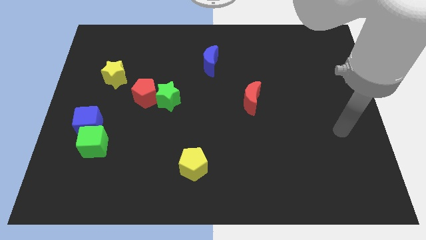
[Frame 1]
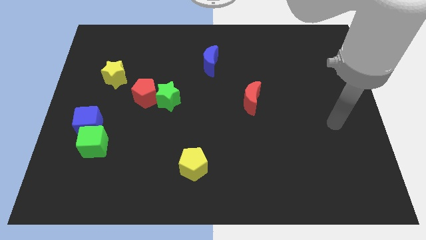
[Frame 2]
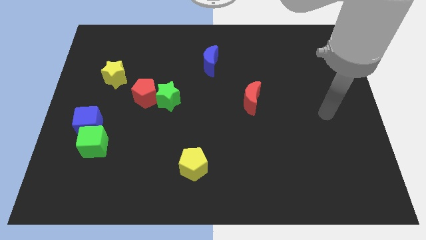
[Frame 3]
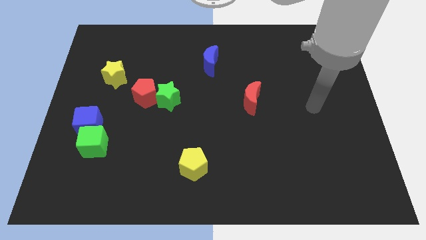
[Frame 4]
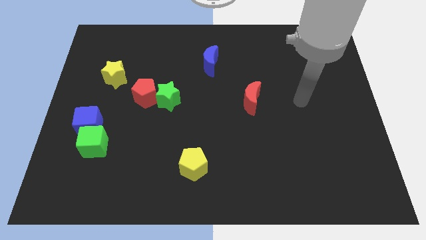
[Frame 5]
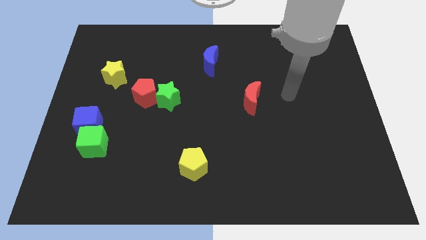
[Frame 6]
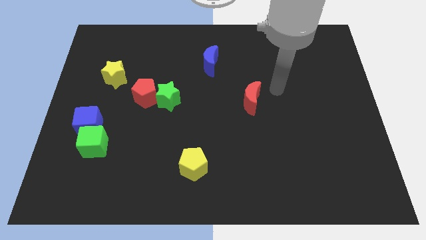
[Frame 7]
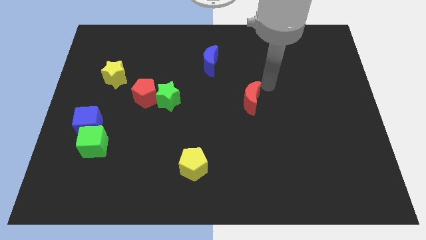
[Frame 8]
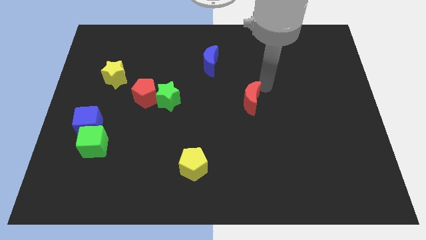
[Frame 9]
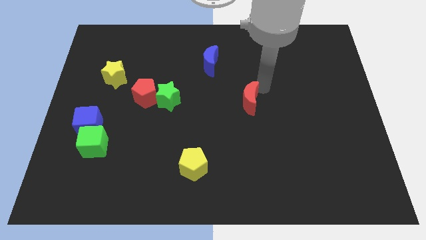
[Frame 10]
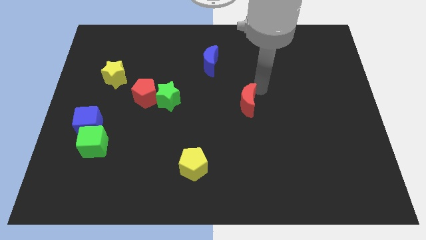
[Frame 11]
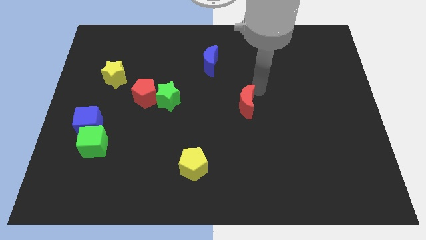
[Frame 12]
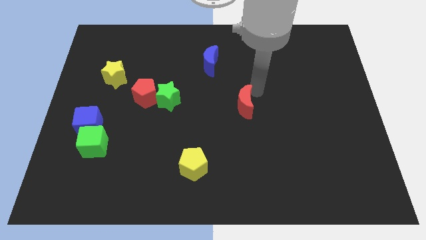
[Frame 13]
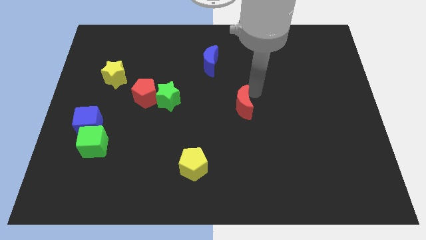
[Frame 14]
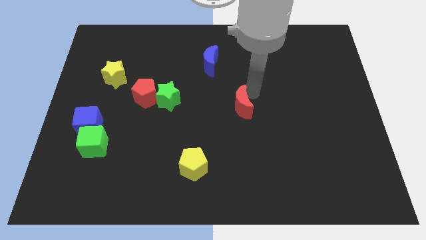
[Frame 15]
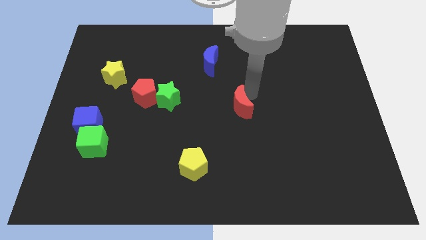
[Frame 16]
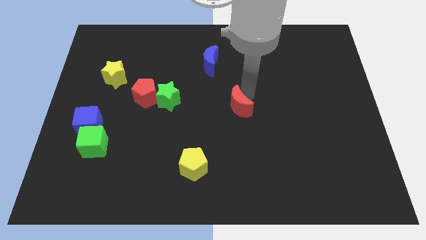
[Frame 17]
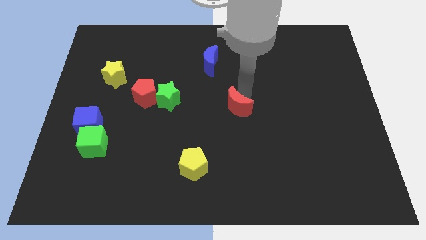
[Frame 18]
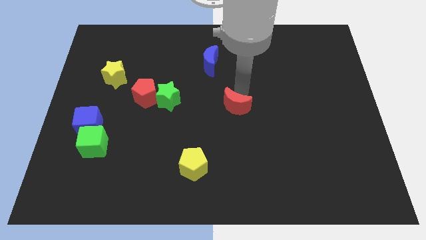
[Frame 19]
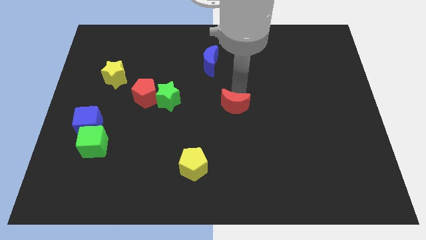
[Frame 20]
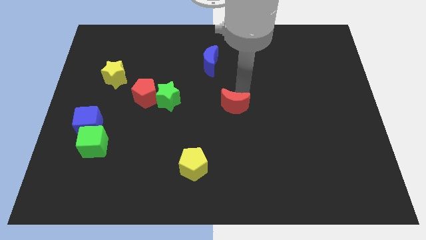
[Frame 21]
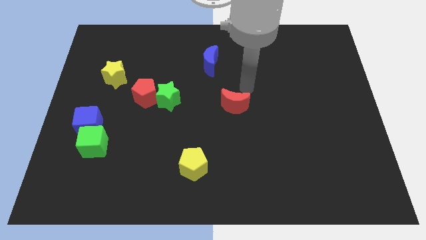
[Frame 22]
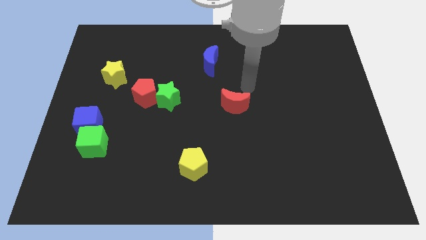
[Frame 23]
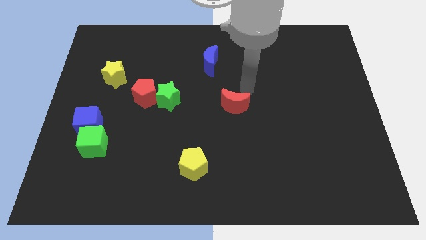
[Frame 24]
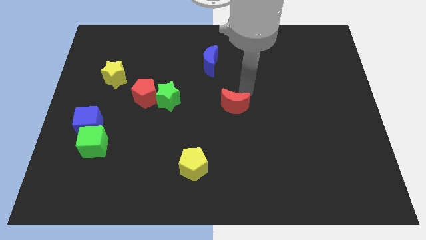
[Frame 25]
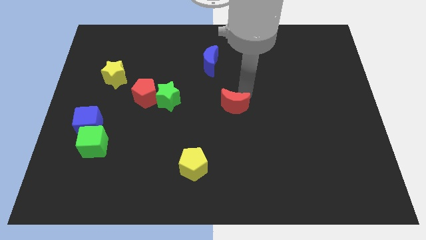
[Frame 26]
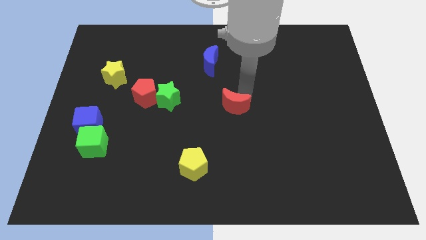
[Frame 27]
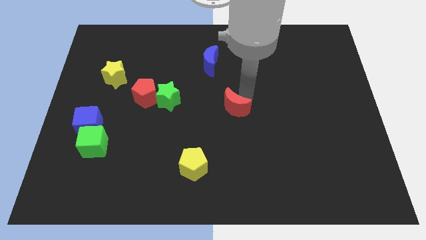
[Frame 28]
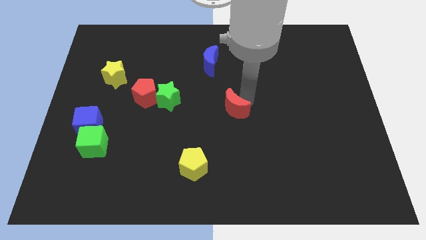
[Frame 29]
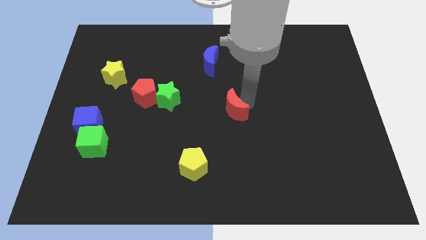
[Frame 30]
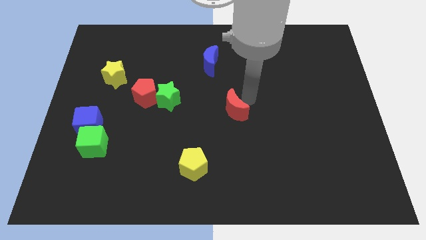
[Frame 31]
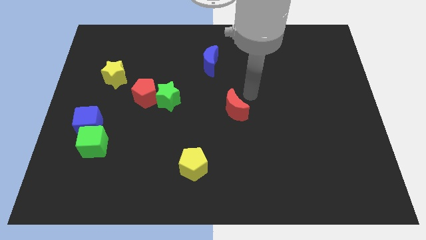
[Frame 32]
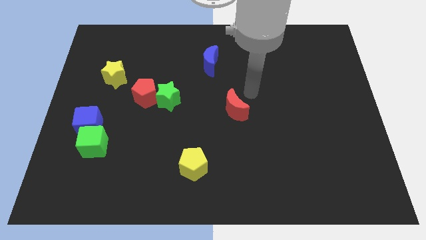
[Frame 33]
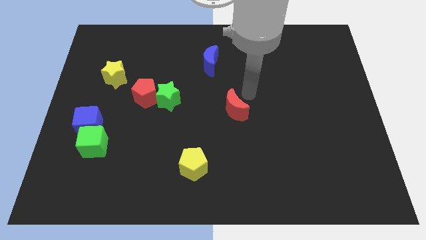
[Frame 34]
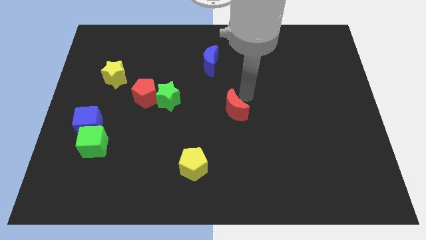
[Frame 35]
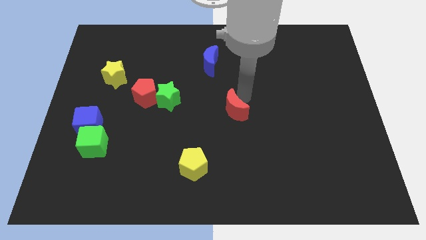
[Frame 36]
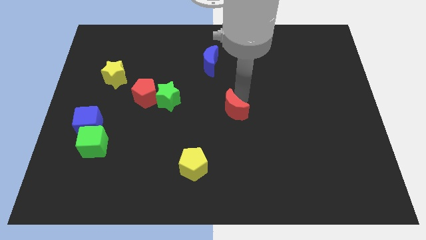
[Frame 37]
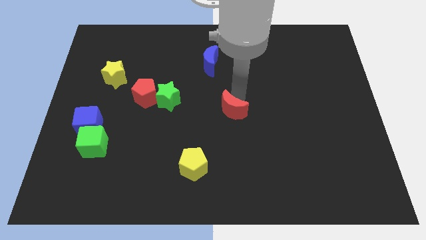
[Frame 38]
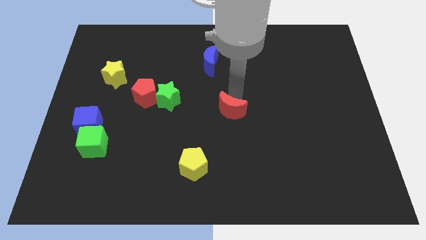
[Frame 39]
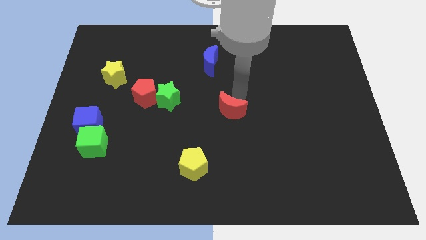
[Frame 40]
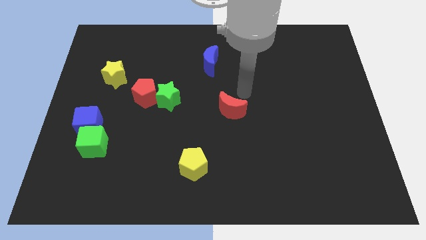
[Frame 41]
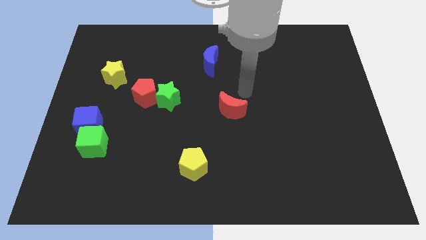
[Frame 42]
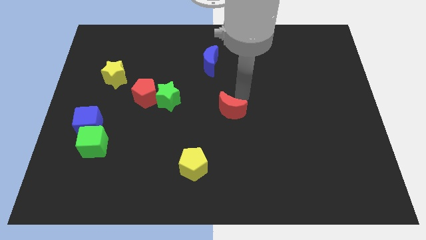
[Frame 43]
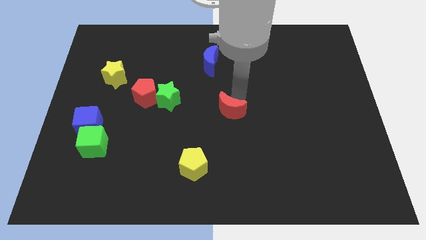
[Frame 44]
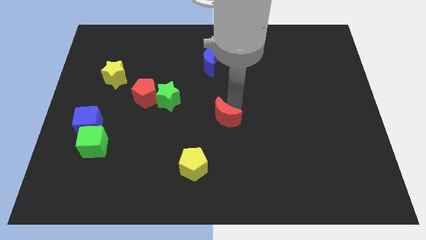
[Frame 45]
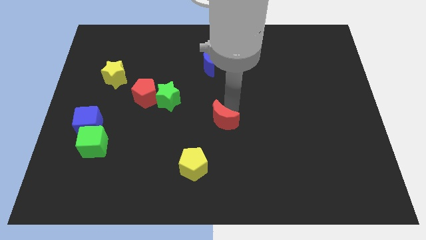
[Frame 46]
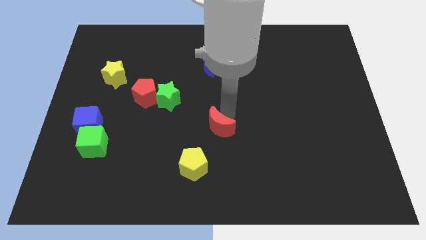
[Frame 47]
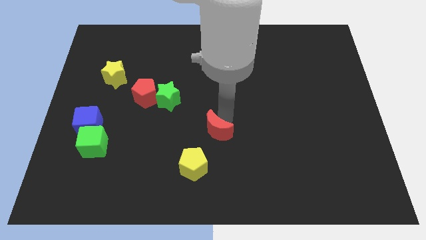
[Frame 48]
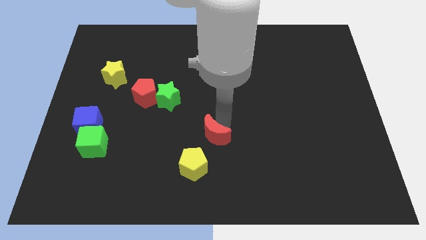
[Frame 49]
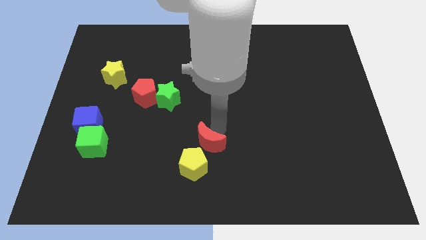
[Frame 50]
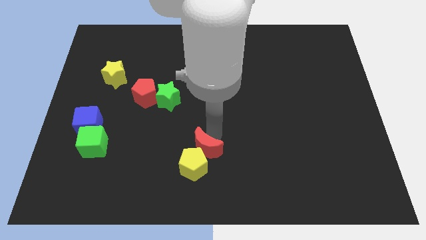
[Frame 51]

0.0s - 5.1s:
push the red moon close to the yellow pentagon

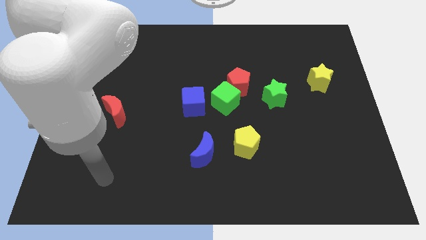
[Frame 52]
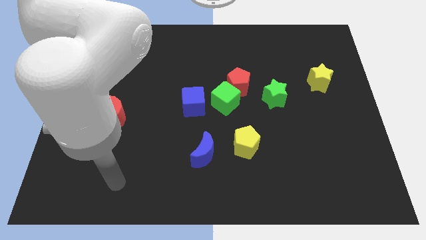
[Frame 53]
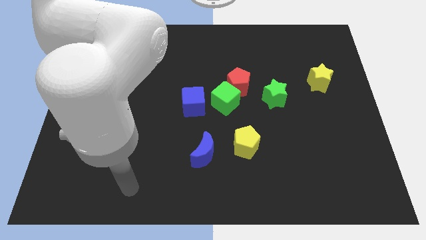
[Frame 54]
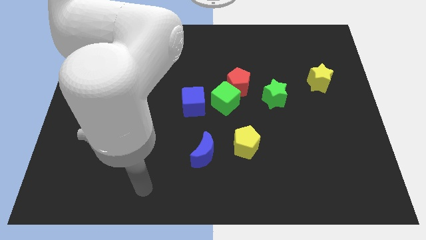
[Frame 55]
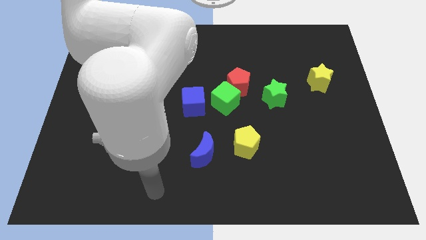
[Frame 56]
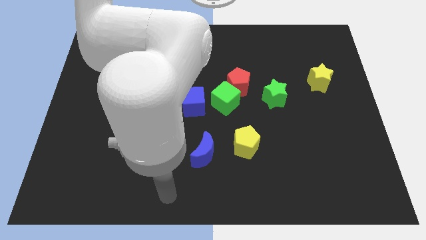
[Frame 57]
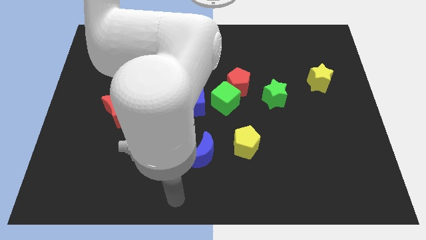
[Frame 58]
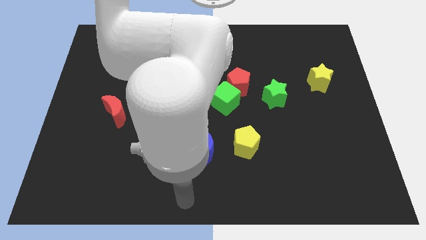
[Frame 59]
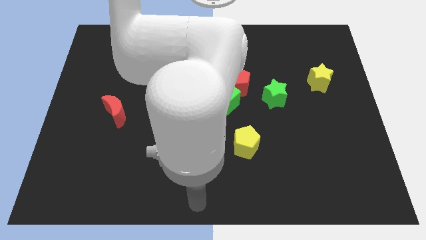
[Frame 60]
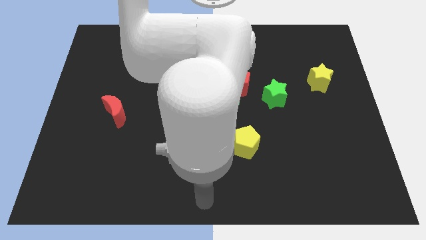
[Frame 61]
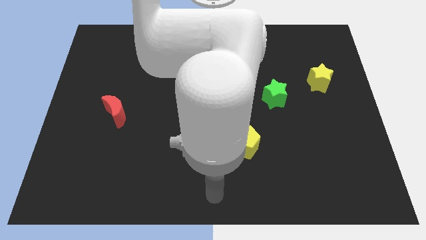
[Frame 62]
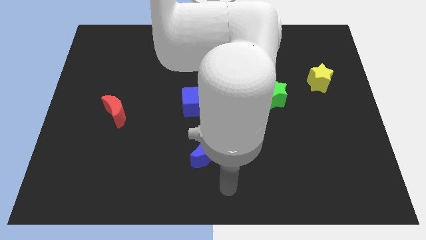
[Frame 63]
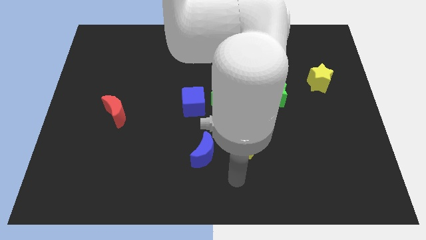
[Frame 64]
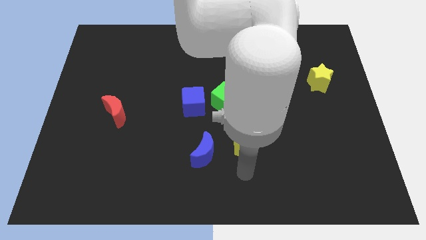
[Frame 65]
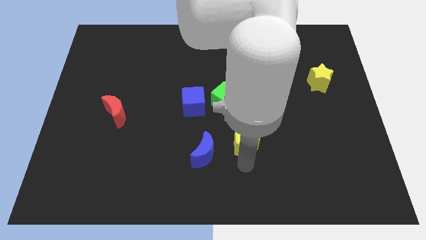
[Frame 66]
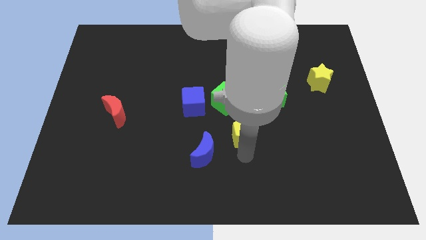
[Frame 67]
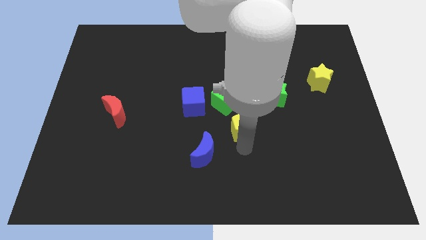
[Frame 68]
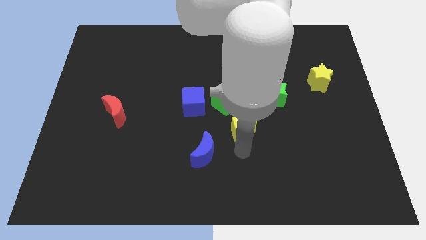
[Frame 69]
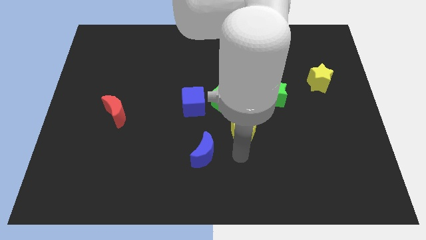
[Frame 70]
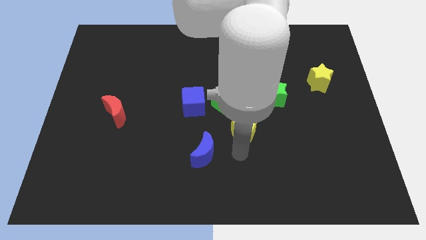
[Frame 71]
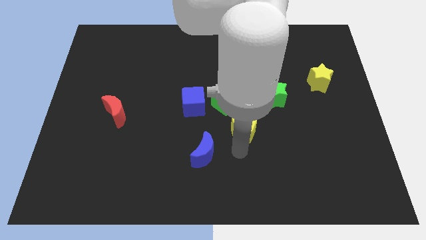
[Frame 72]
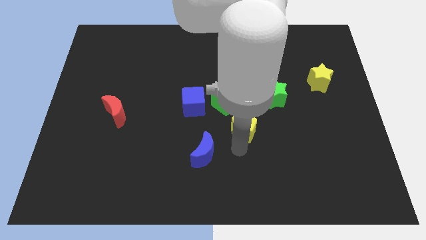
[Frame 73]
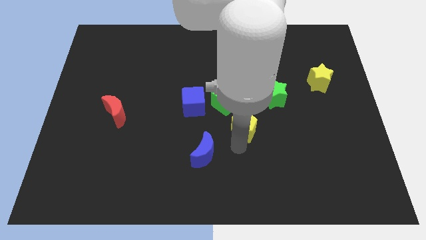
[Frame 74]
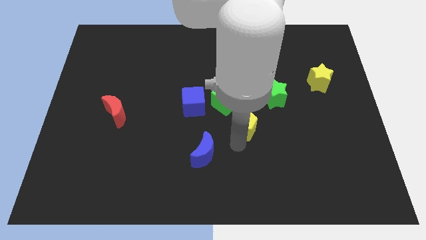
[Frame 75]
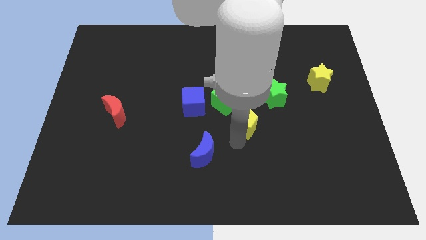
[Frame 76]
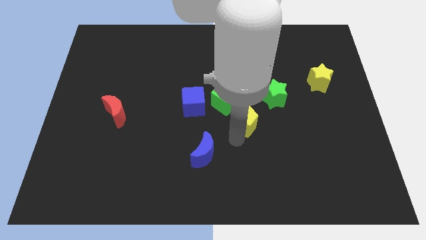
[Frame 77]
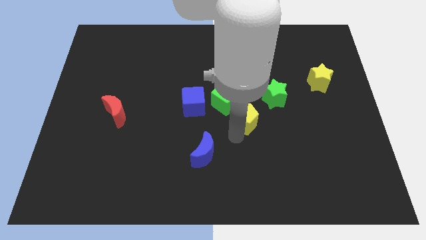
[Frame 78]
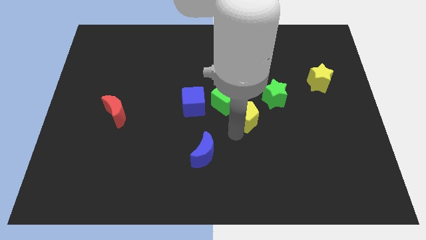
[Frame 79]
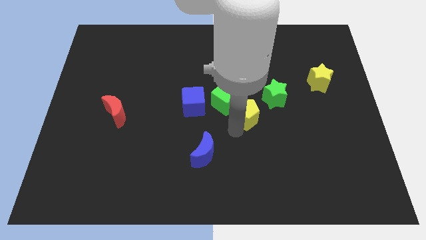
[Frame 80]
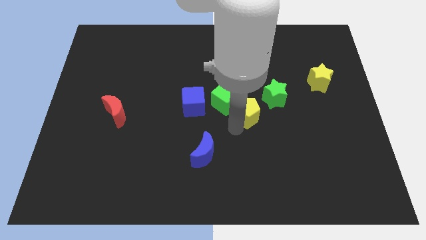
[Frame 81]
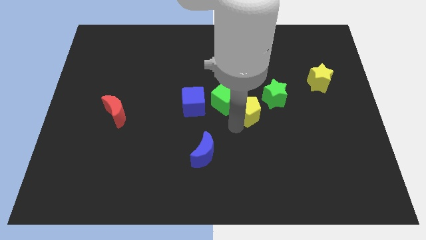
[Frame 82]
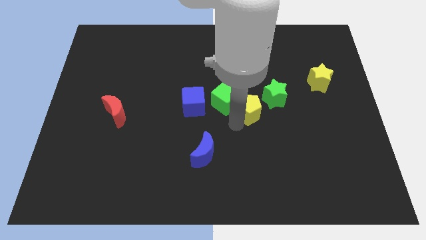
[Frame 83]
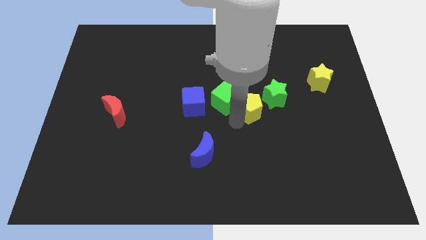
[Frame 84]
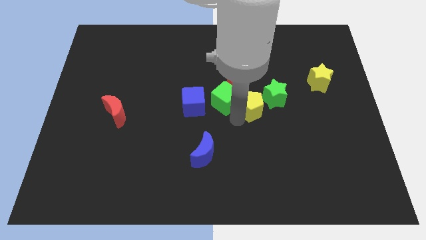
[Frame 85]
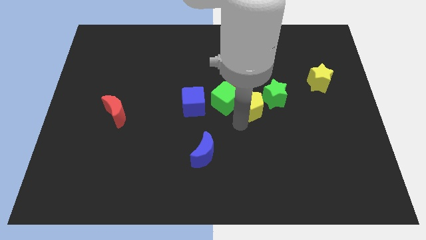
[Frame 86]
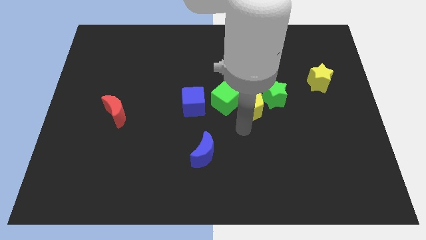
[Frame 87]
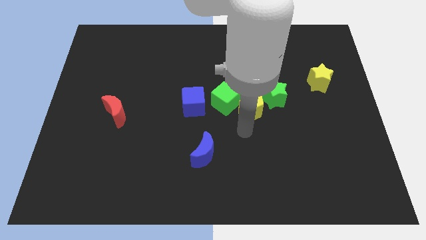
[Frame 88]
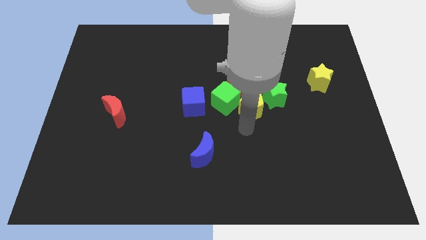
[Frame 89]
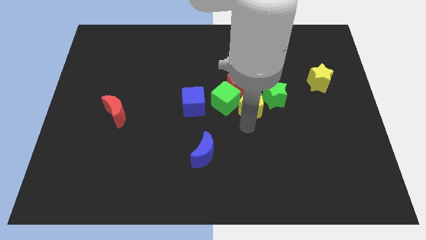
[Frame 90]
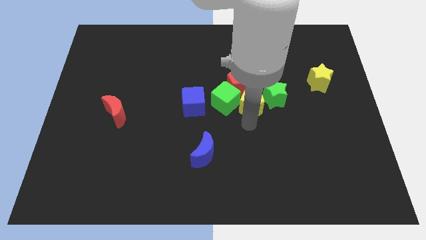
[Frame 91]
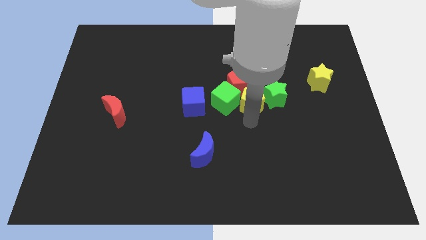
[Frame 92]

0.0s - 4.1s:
push the yellow pentagon towards the red pentagon
